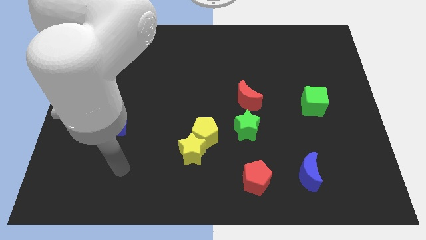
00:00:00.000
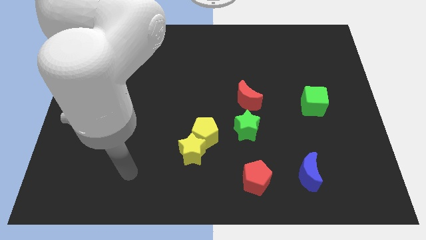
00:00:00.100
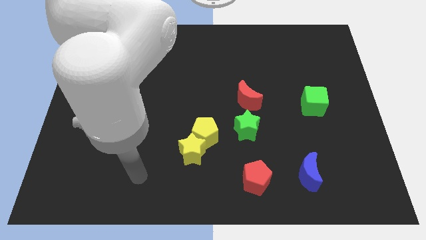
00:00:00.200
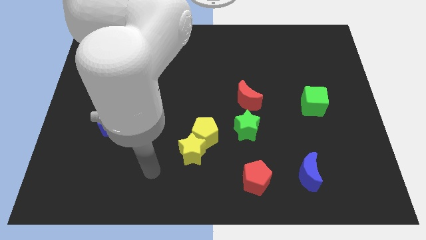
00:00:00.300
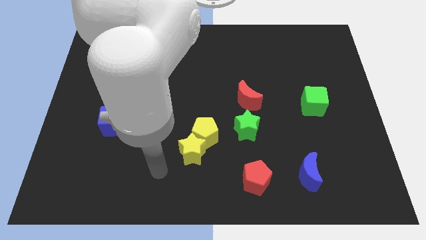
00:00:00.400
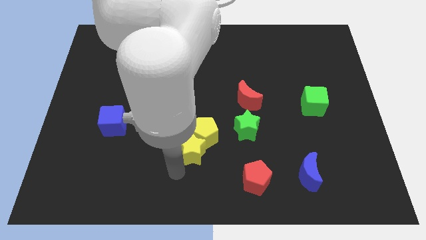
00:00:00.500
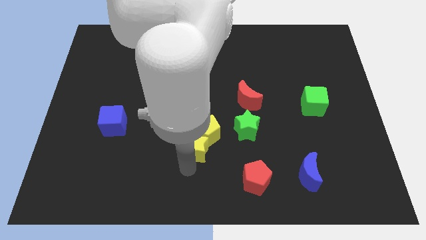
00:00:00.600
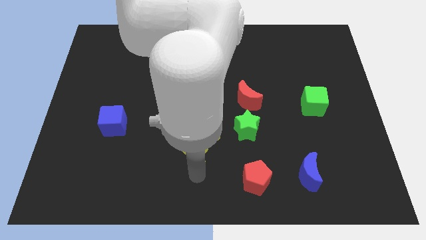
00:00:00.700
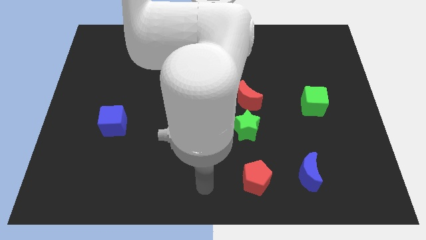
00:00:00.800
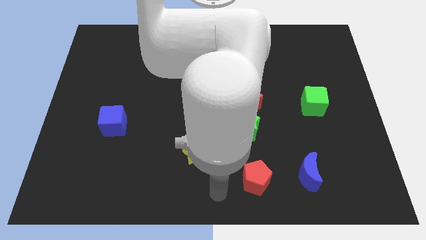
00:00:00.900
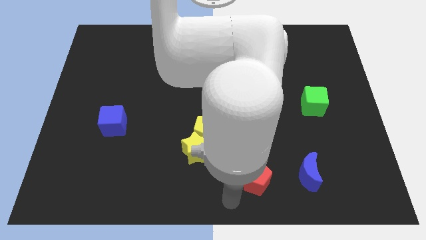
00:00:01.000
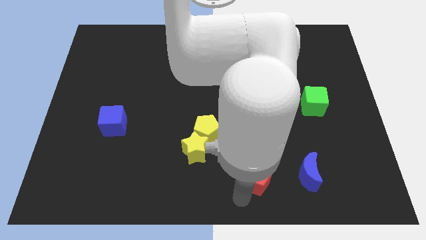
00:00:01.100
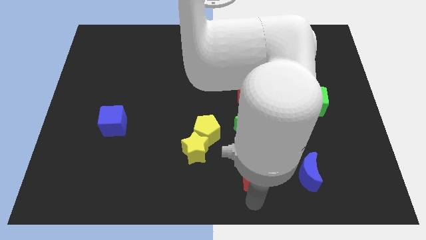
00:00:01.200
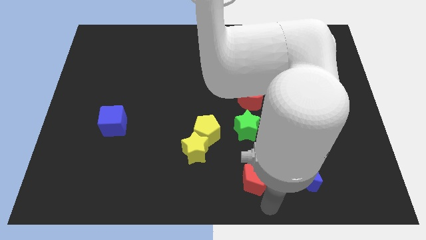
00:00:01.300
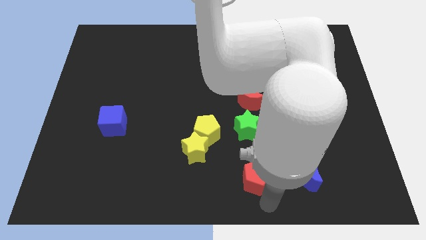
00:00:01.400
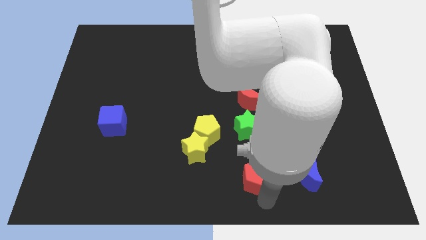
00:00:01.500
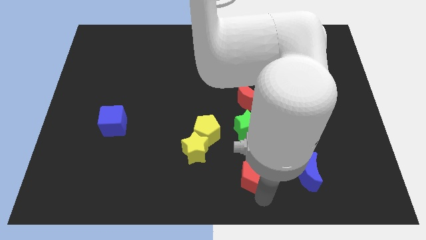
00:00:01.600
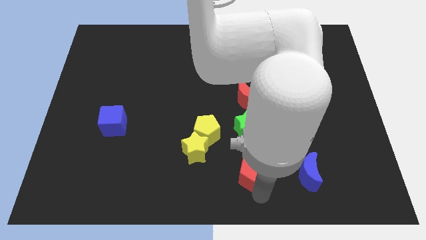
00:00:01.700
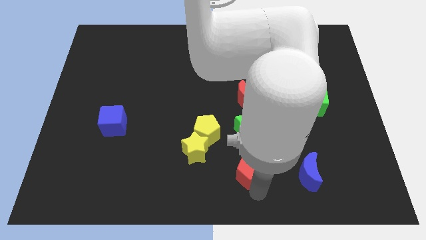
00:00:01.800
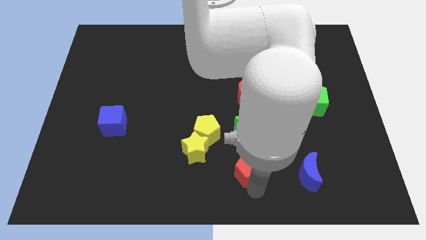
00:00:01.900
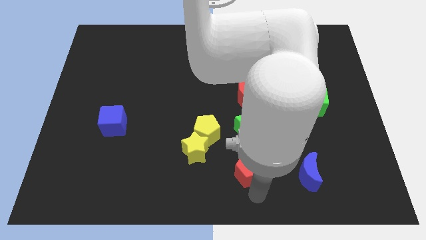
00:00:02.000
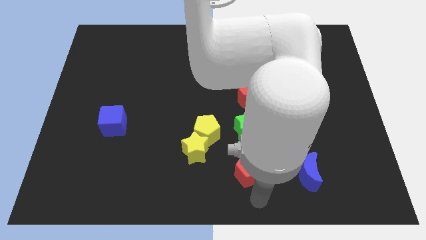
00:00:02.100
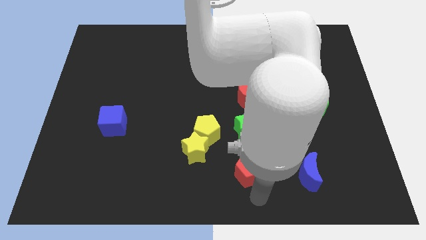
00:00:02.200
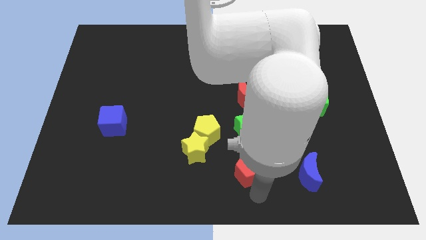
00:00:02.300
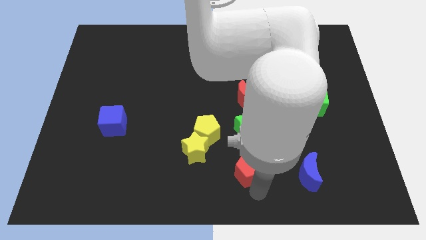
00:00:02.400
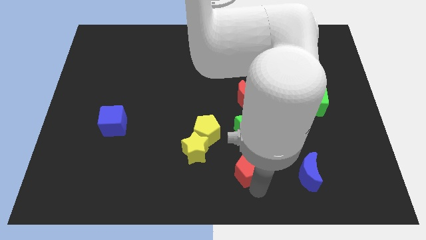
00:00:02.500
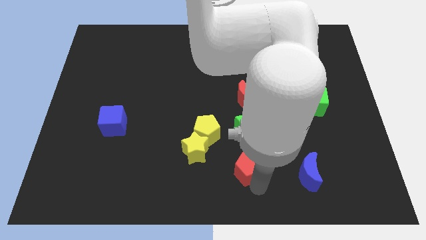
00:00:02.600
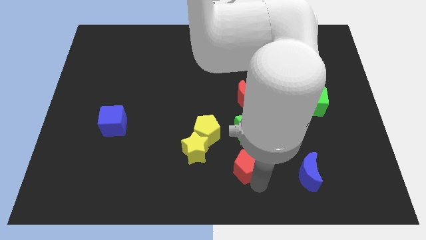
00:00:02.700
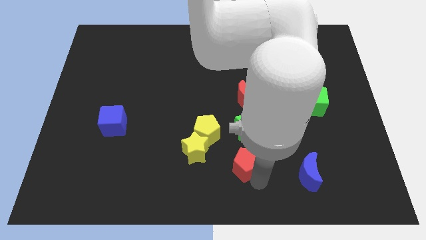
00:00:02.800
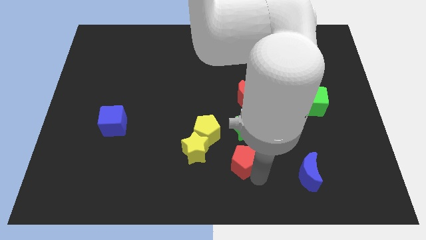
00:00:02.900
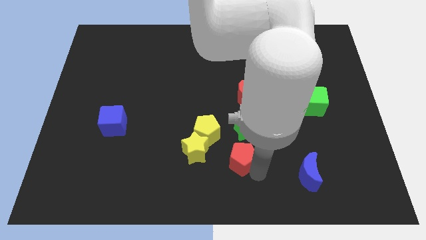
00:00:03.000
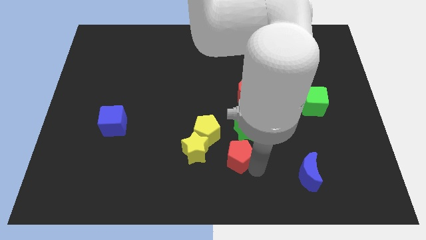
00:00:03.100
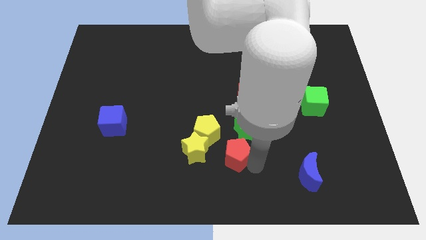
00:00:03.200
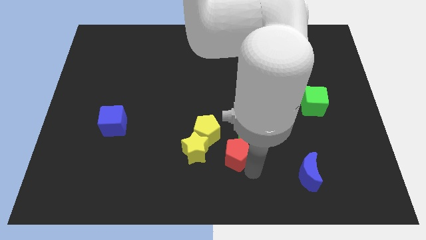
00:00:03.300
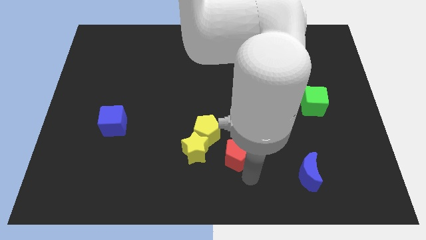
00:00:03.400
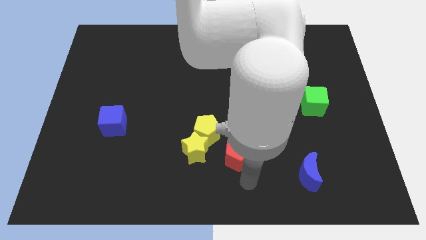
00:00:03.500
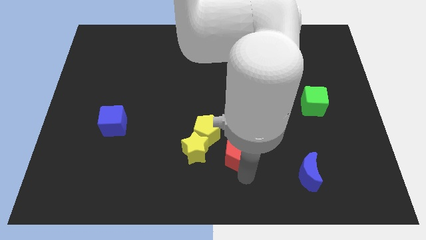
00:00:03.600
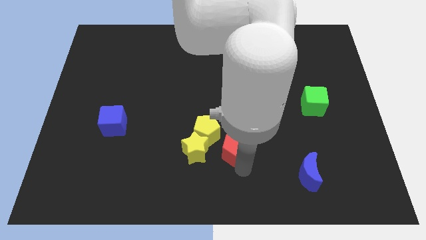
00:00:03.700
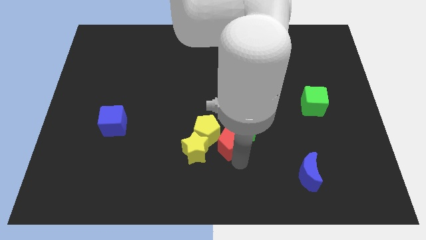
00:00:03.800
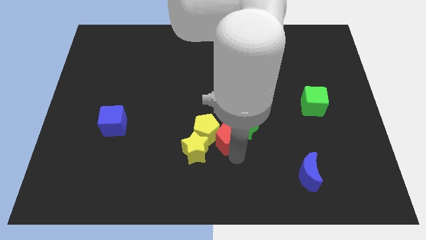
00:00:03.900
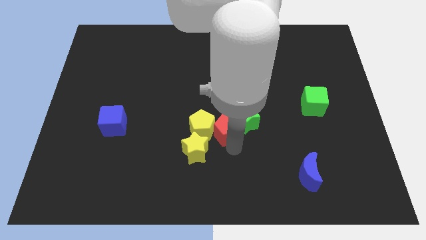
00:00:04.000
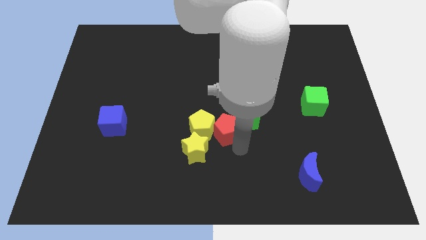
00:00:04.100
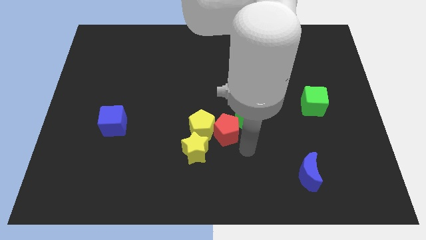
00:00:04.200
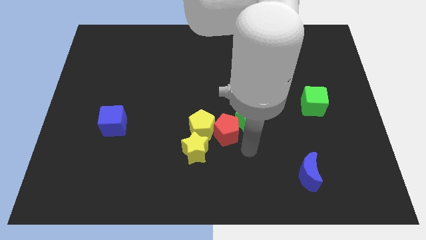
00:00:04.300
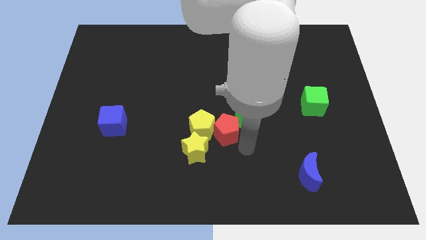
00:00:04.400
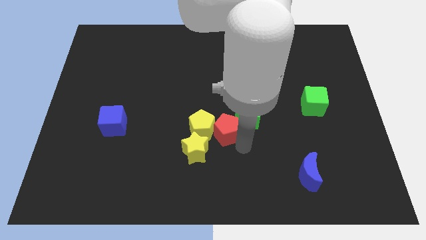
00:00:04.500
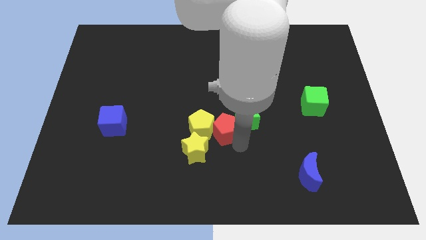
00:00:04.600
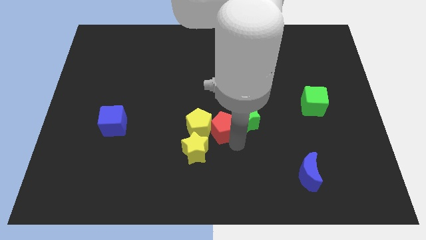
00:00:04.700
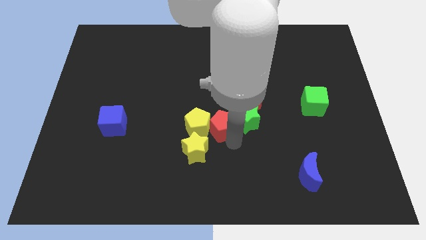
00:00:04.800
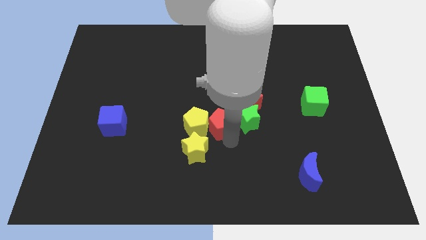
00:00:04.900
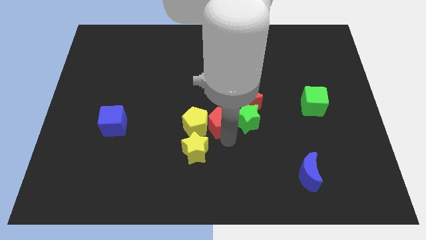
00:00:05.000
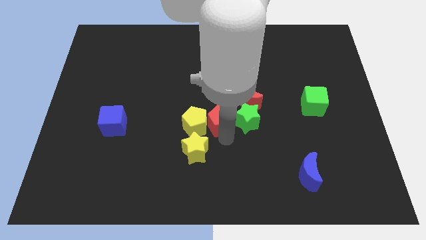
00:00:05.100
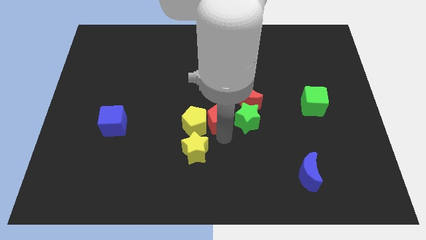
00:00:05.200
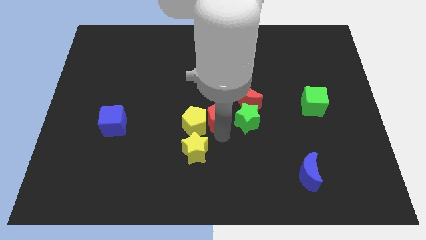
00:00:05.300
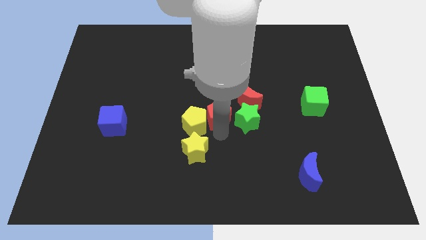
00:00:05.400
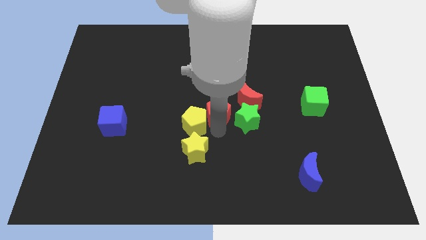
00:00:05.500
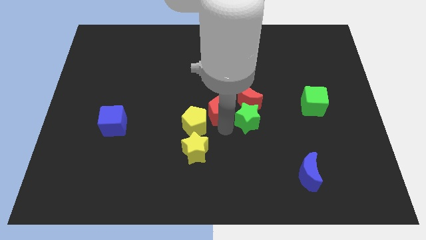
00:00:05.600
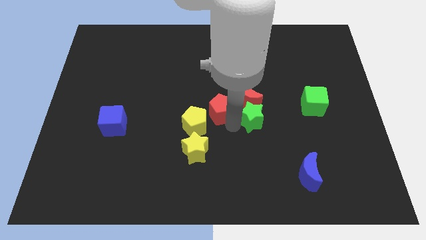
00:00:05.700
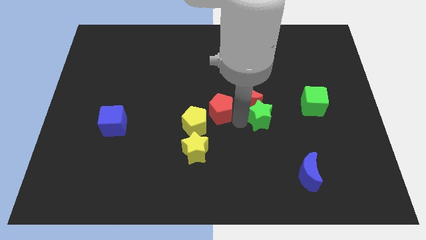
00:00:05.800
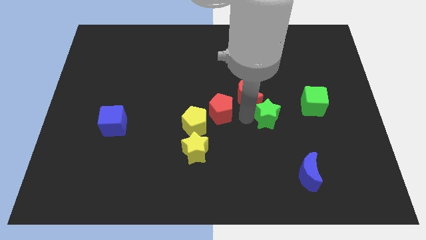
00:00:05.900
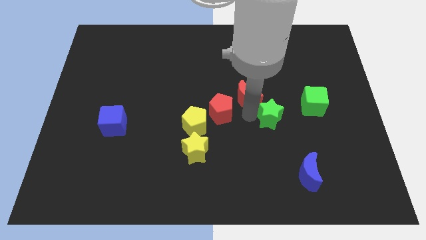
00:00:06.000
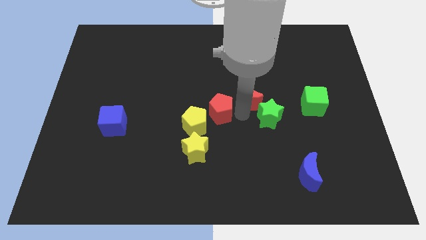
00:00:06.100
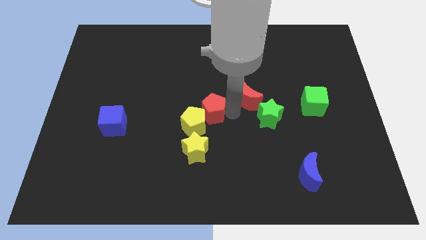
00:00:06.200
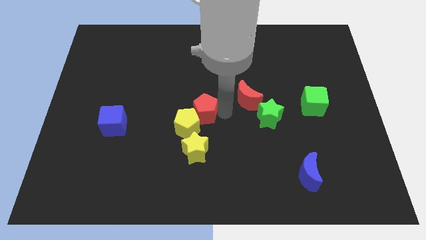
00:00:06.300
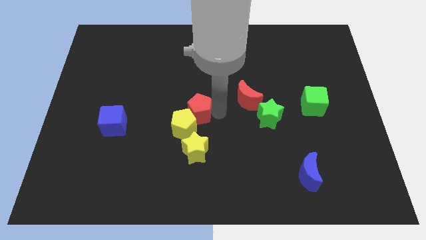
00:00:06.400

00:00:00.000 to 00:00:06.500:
slide the red pentagon diagonally up and left

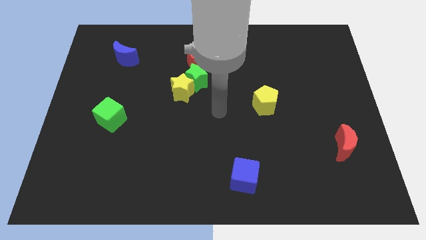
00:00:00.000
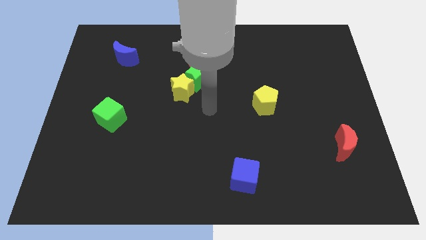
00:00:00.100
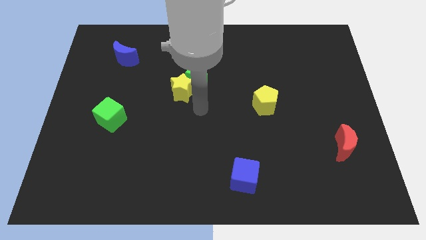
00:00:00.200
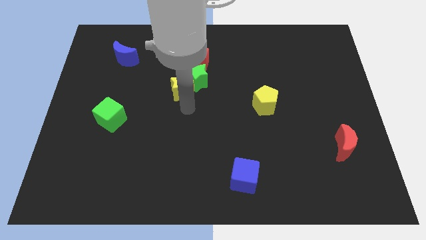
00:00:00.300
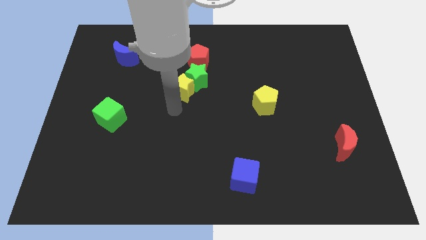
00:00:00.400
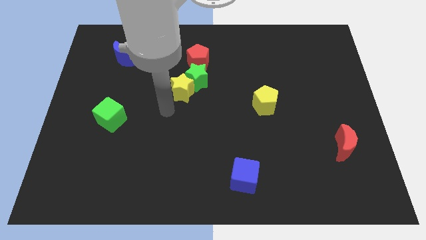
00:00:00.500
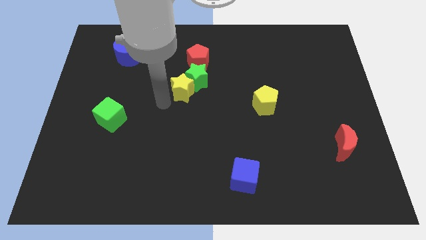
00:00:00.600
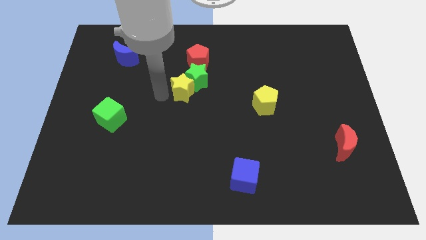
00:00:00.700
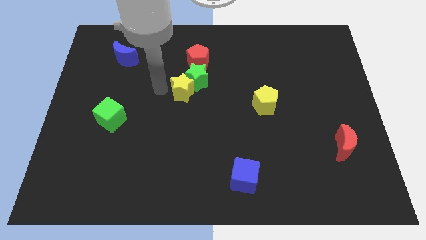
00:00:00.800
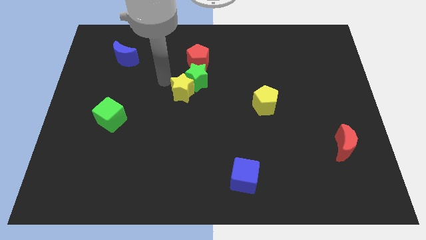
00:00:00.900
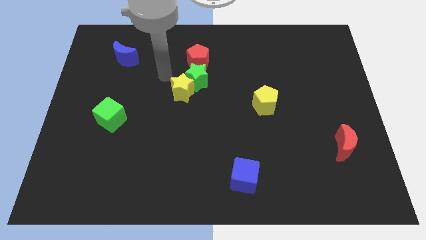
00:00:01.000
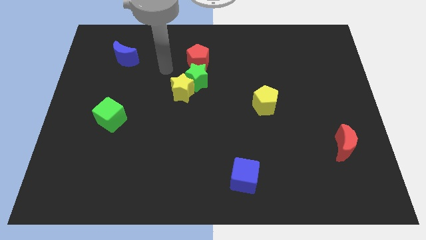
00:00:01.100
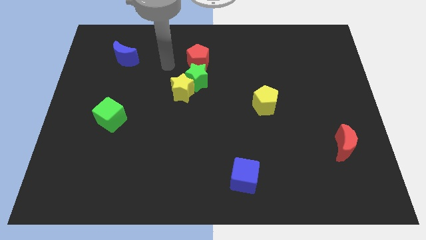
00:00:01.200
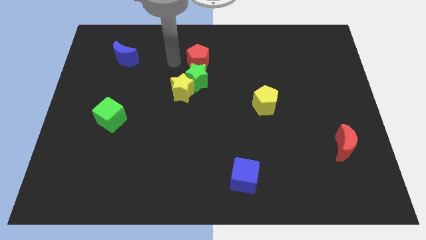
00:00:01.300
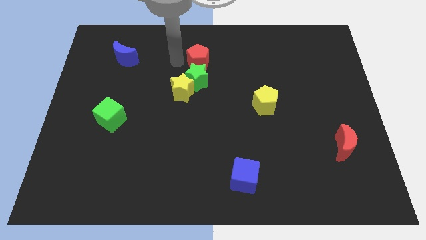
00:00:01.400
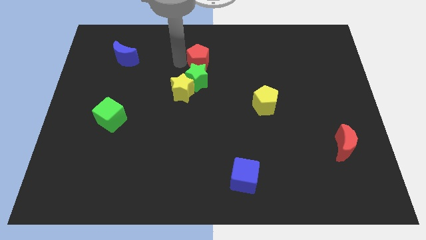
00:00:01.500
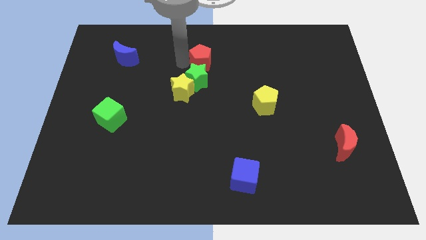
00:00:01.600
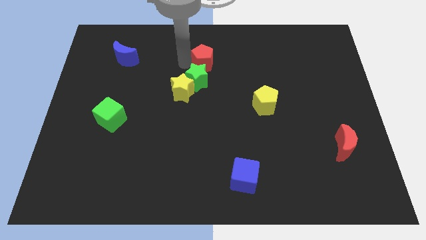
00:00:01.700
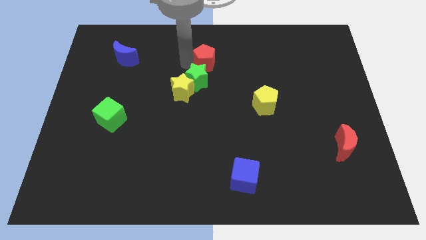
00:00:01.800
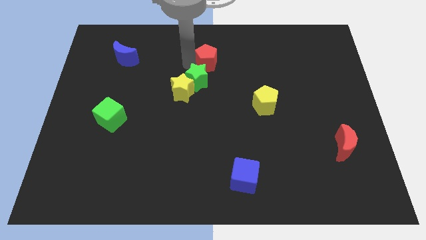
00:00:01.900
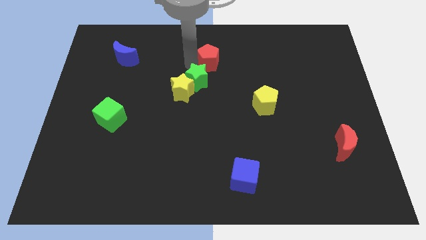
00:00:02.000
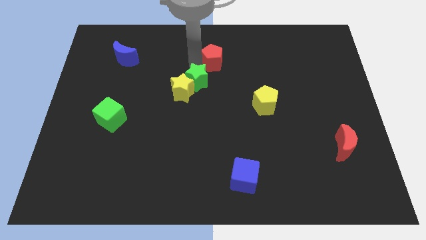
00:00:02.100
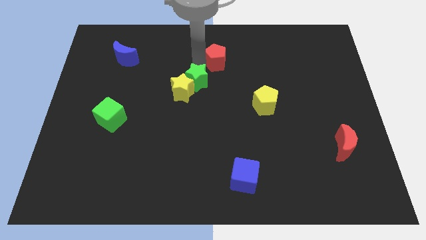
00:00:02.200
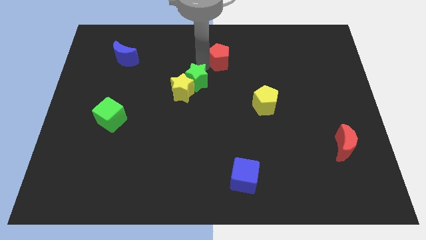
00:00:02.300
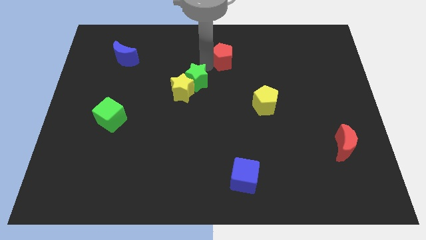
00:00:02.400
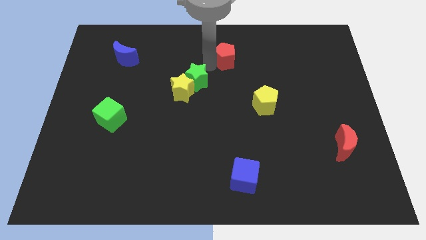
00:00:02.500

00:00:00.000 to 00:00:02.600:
slightly push the red pentagon to the right
